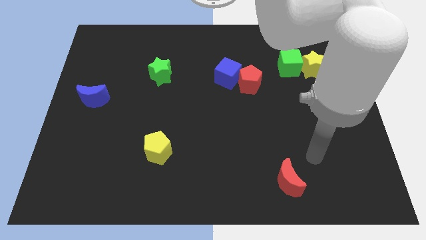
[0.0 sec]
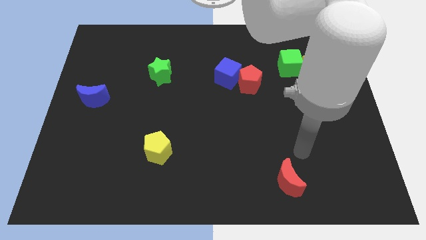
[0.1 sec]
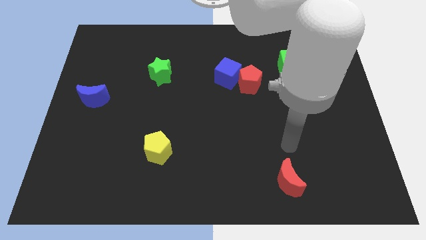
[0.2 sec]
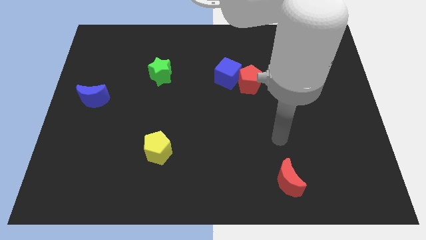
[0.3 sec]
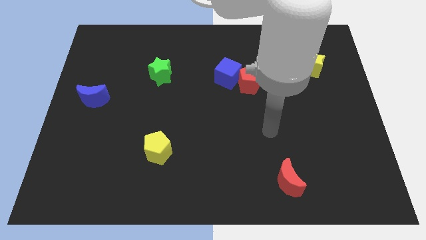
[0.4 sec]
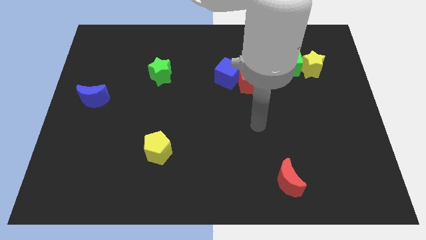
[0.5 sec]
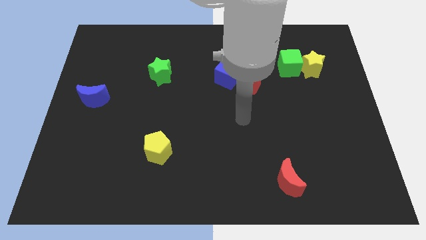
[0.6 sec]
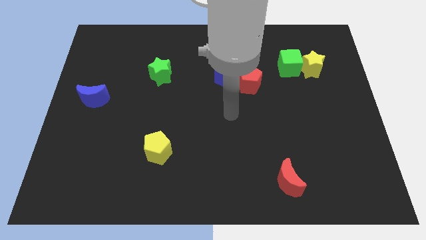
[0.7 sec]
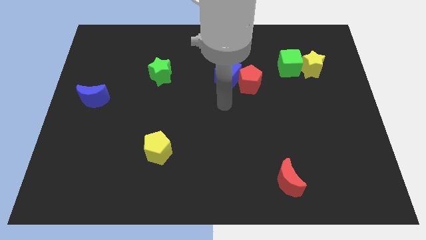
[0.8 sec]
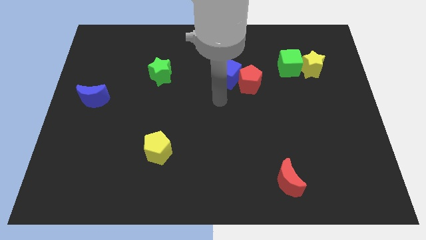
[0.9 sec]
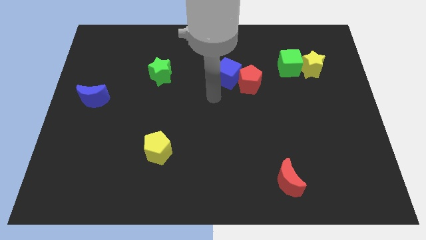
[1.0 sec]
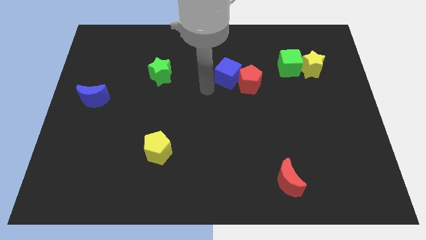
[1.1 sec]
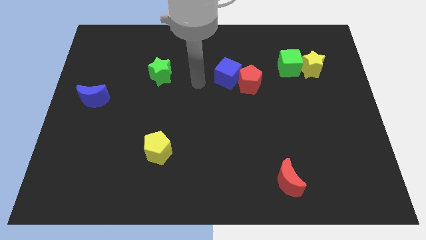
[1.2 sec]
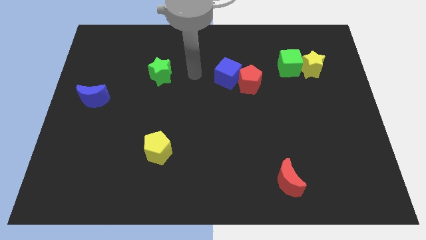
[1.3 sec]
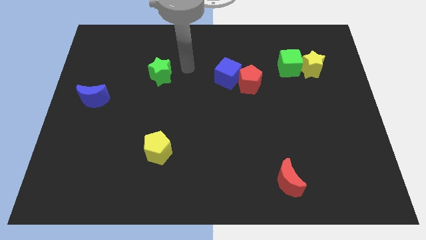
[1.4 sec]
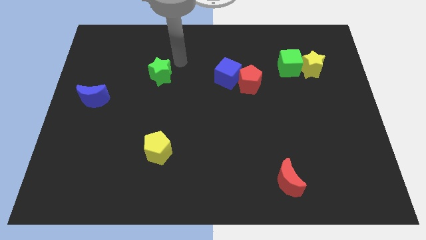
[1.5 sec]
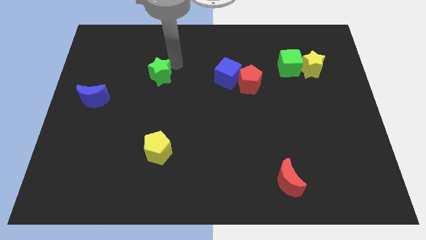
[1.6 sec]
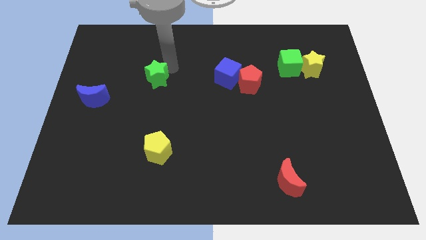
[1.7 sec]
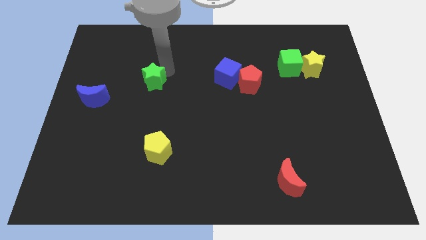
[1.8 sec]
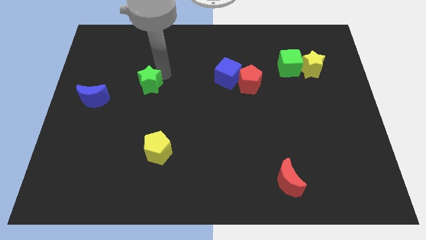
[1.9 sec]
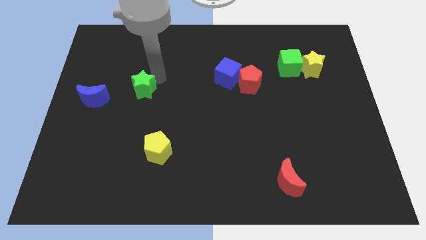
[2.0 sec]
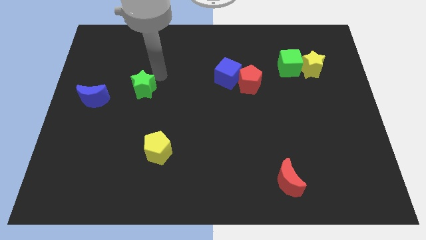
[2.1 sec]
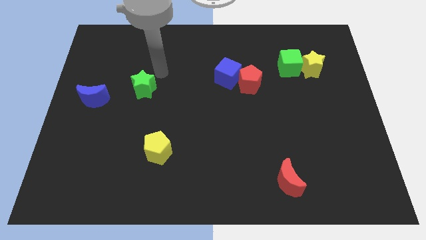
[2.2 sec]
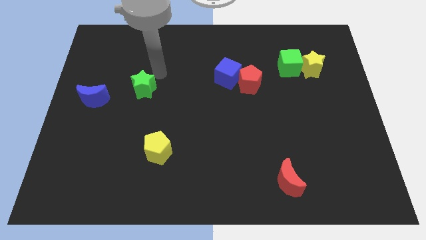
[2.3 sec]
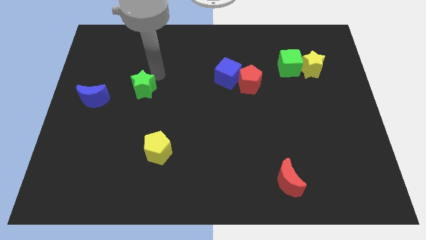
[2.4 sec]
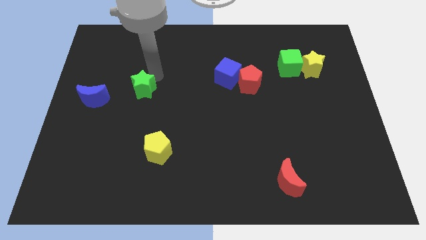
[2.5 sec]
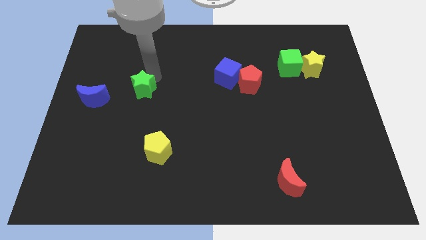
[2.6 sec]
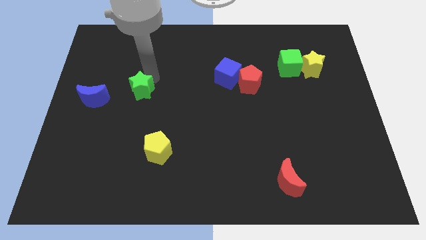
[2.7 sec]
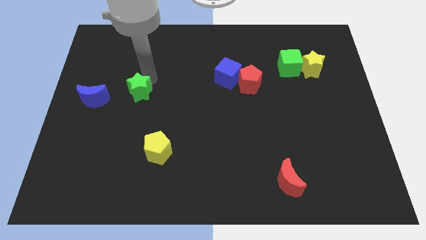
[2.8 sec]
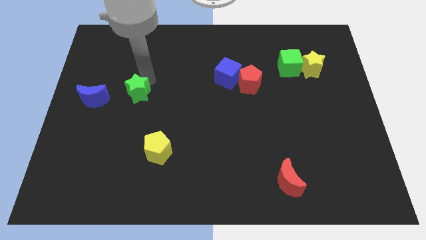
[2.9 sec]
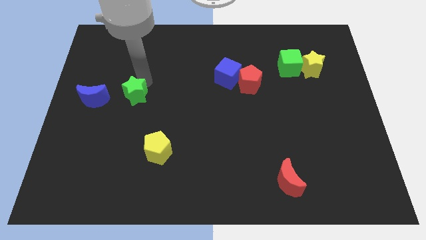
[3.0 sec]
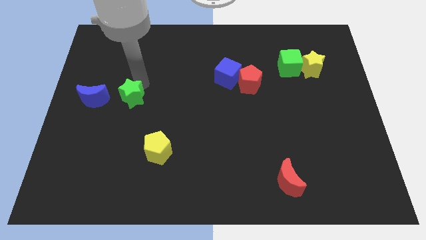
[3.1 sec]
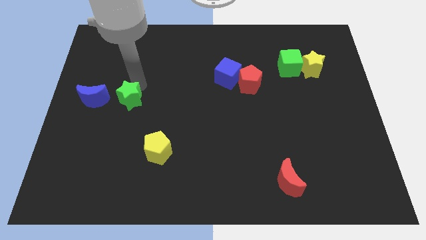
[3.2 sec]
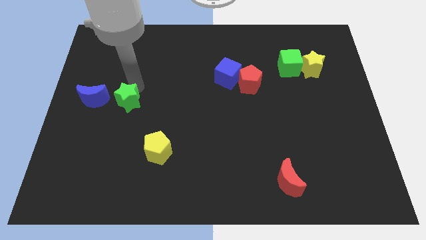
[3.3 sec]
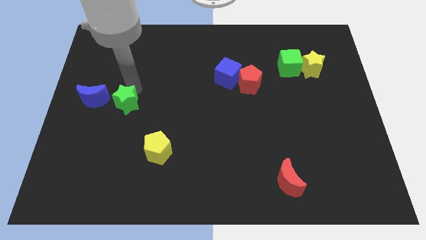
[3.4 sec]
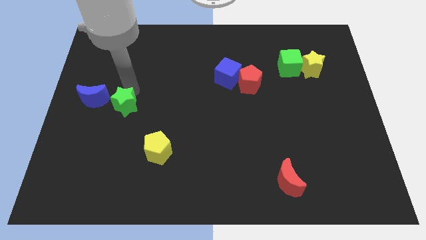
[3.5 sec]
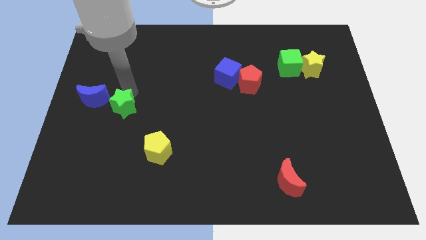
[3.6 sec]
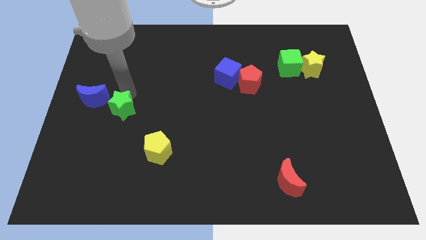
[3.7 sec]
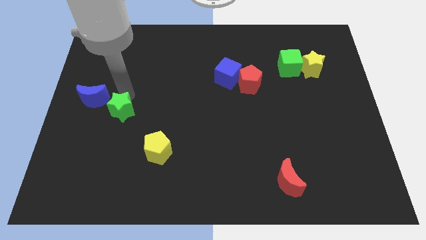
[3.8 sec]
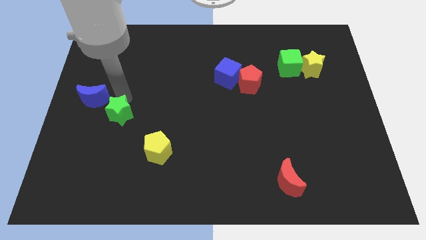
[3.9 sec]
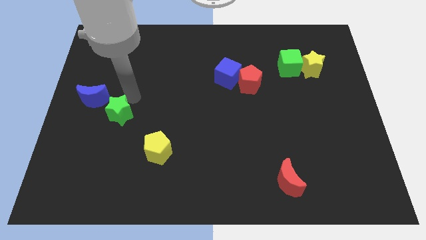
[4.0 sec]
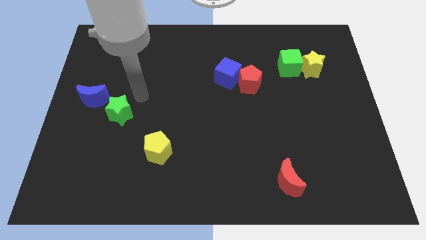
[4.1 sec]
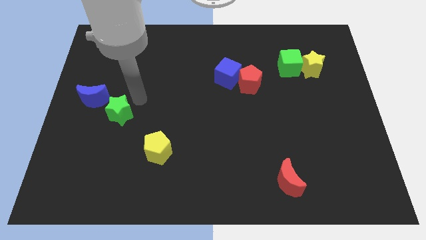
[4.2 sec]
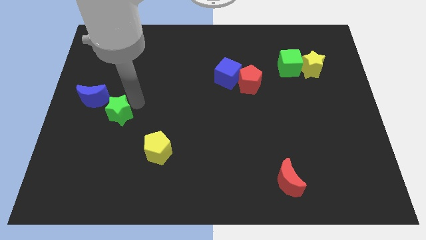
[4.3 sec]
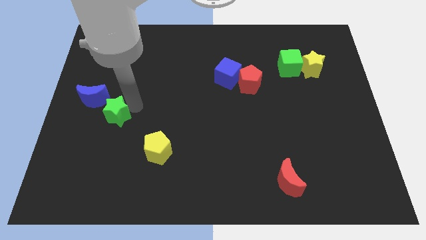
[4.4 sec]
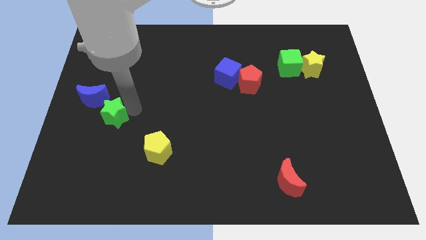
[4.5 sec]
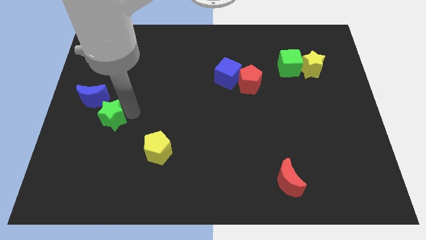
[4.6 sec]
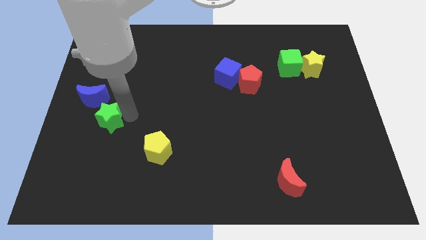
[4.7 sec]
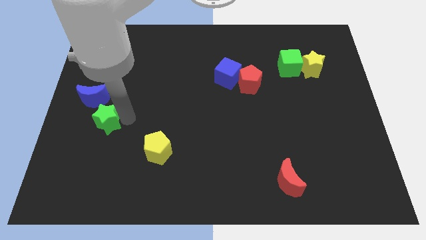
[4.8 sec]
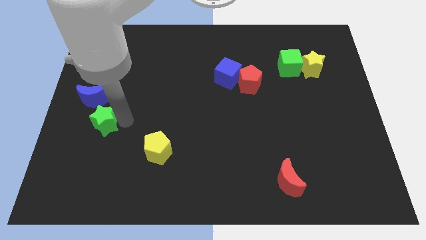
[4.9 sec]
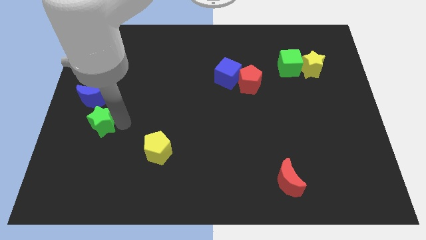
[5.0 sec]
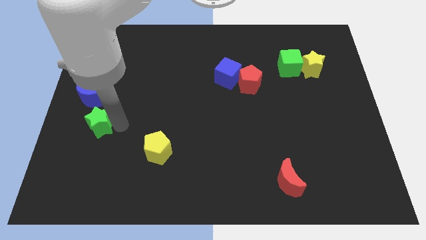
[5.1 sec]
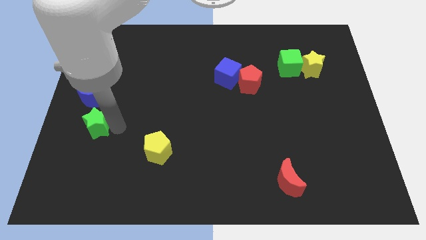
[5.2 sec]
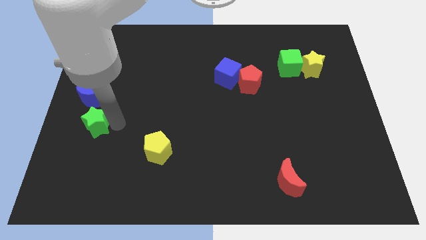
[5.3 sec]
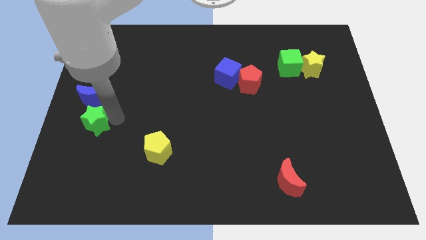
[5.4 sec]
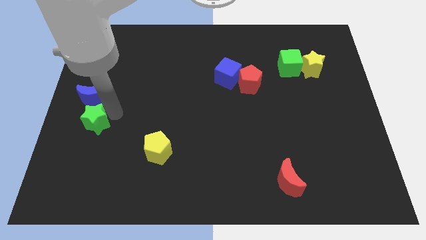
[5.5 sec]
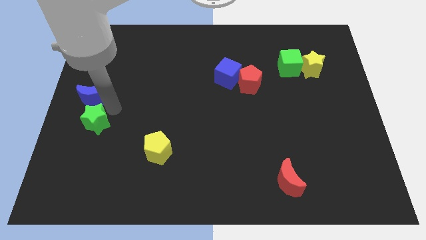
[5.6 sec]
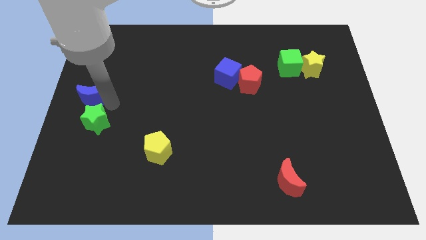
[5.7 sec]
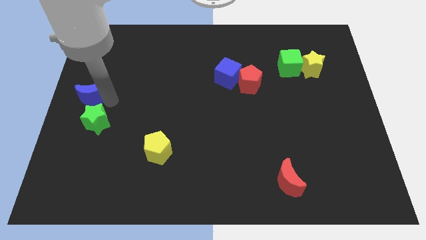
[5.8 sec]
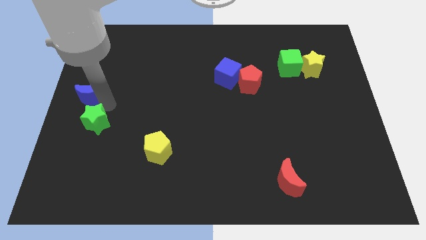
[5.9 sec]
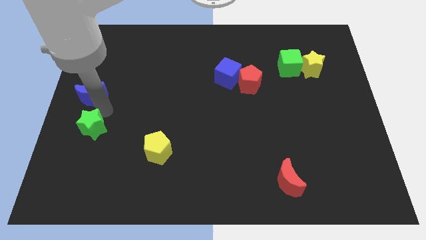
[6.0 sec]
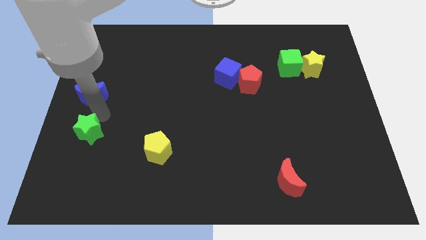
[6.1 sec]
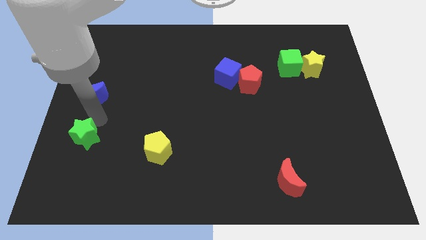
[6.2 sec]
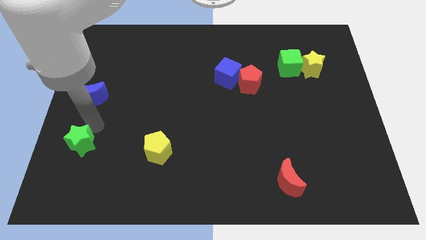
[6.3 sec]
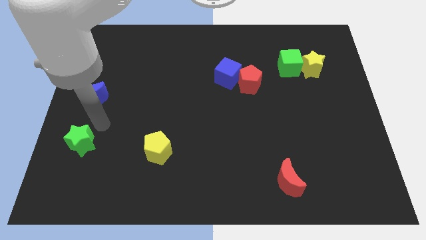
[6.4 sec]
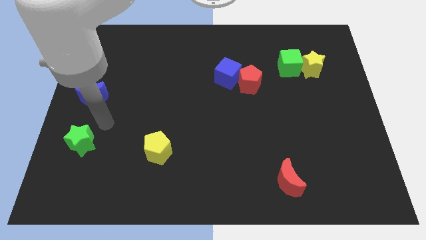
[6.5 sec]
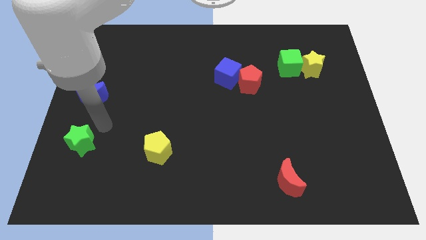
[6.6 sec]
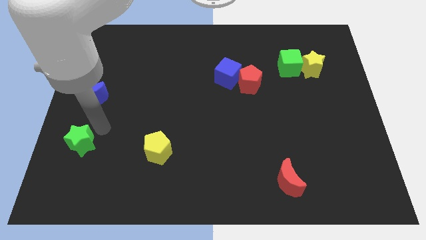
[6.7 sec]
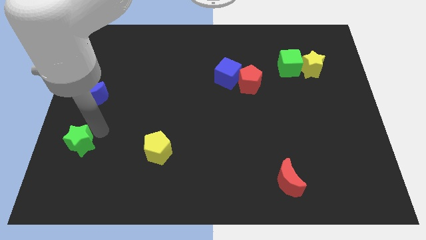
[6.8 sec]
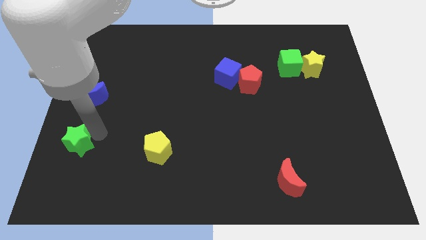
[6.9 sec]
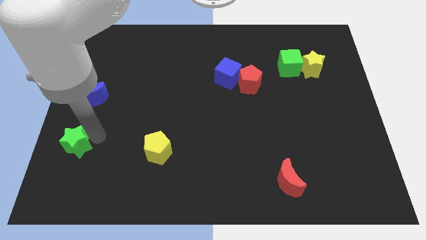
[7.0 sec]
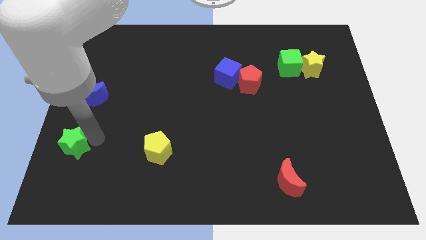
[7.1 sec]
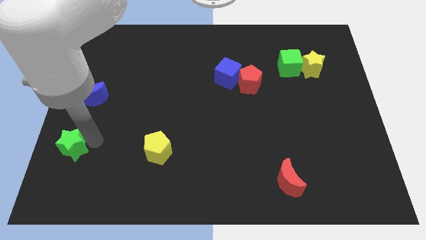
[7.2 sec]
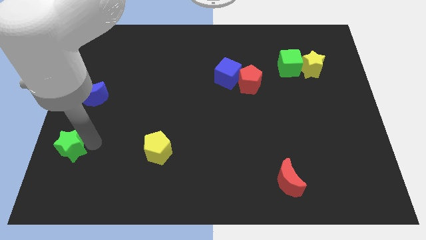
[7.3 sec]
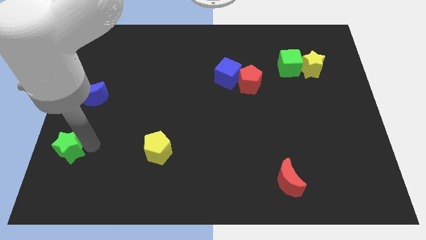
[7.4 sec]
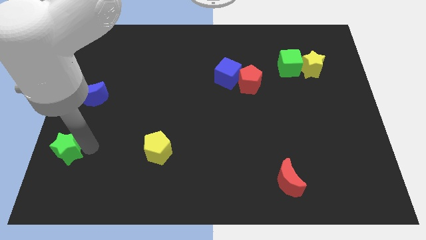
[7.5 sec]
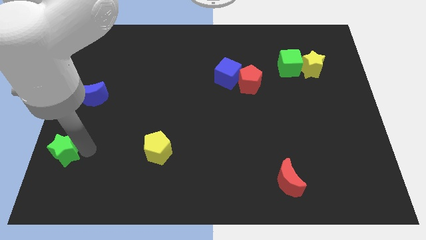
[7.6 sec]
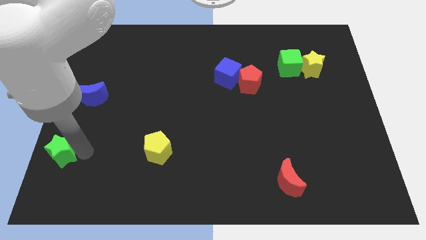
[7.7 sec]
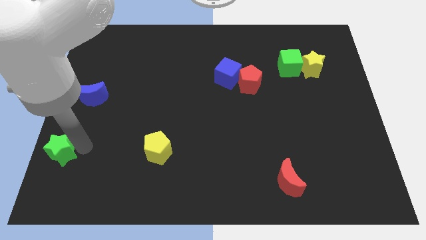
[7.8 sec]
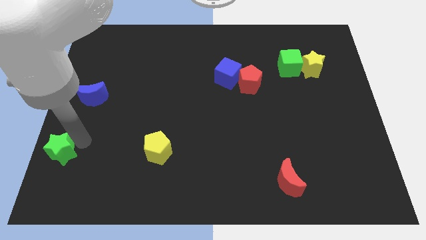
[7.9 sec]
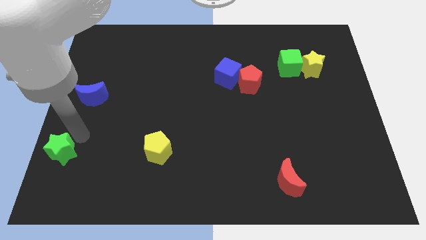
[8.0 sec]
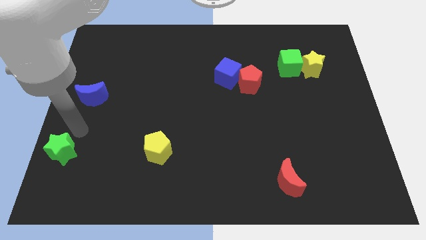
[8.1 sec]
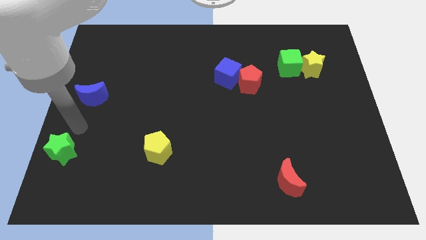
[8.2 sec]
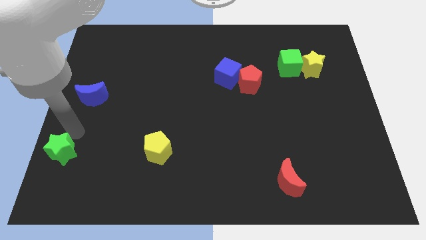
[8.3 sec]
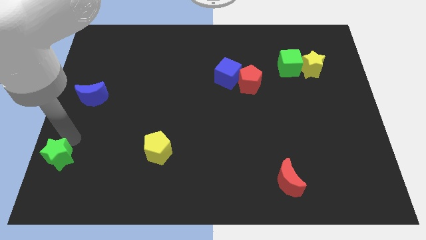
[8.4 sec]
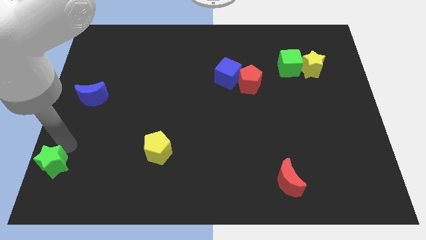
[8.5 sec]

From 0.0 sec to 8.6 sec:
move the green star to the bottom left of the board
